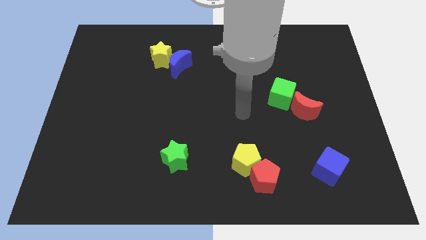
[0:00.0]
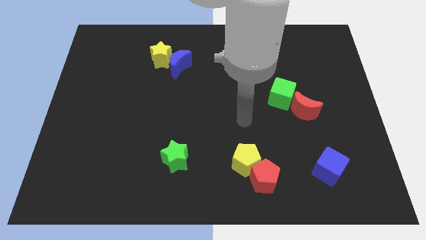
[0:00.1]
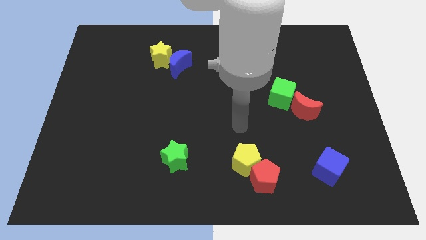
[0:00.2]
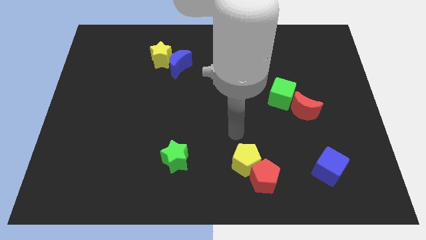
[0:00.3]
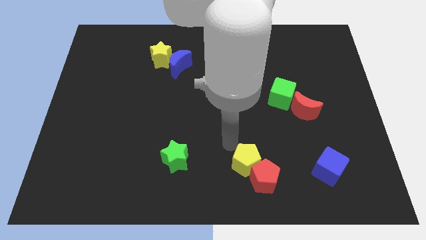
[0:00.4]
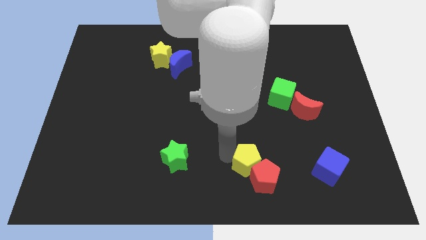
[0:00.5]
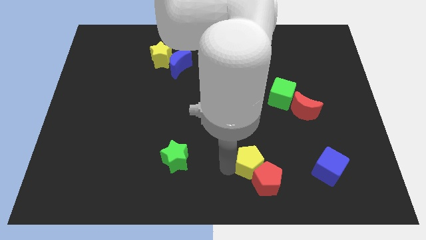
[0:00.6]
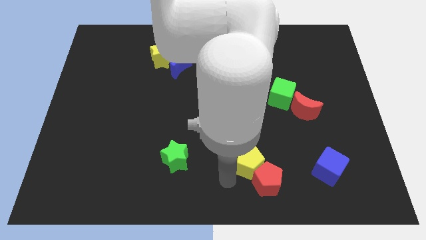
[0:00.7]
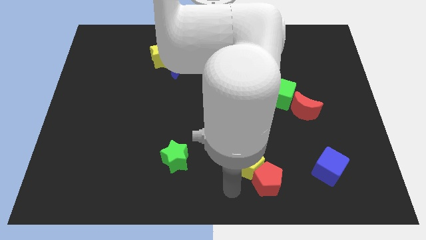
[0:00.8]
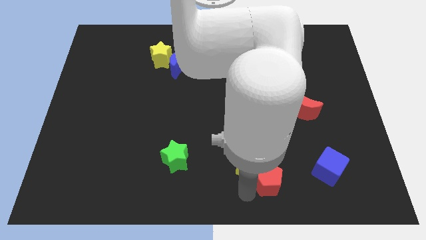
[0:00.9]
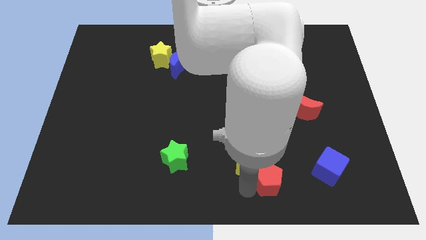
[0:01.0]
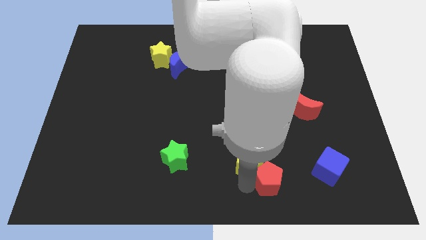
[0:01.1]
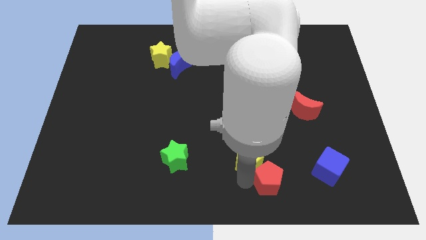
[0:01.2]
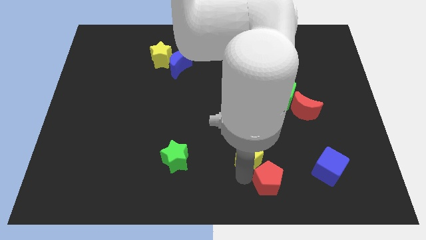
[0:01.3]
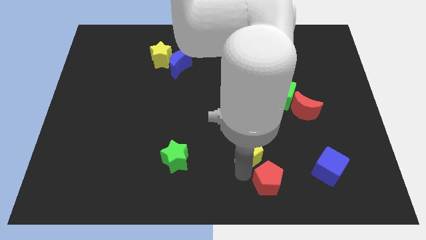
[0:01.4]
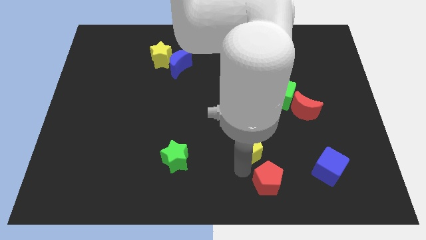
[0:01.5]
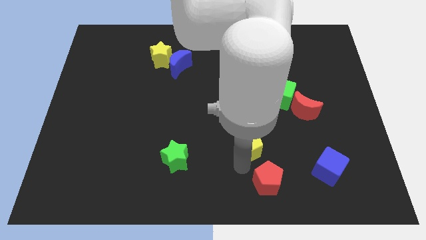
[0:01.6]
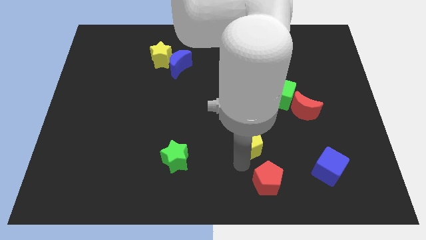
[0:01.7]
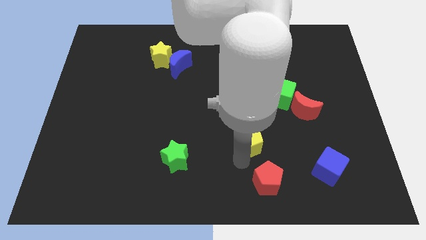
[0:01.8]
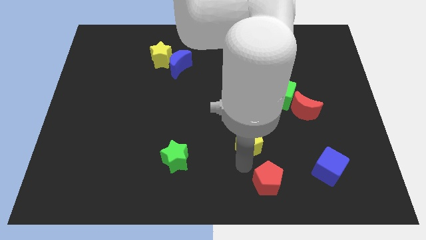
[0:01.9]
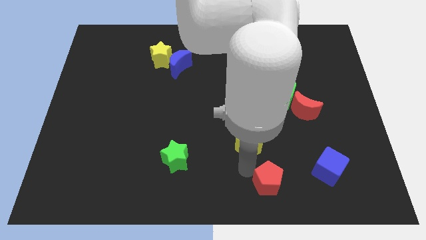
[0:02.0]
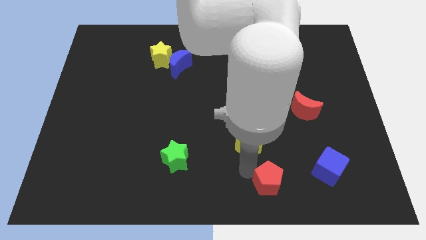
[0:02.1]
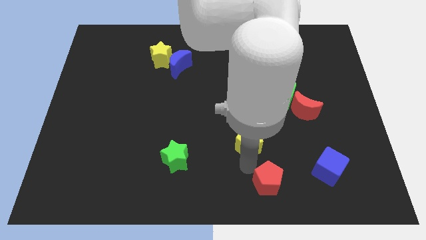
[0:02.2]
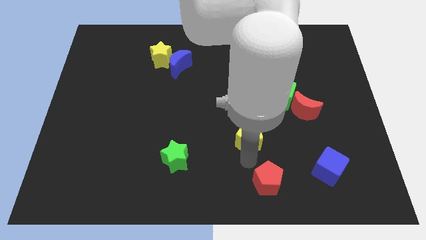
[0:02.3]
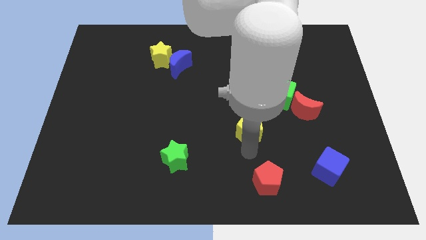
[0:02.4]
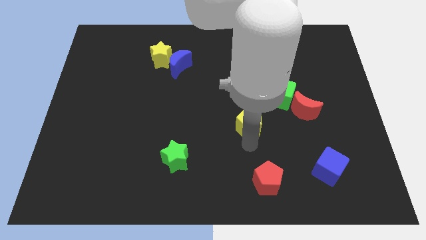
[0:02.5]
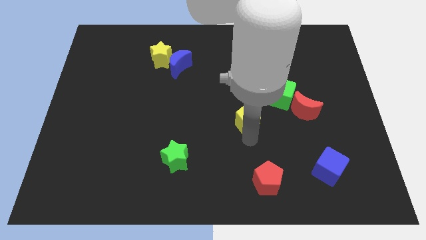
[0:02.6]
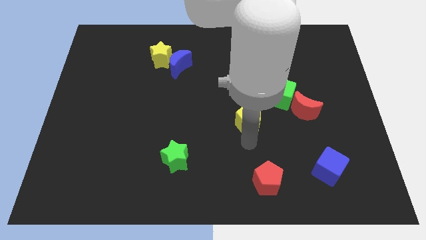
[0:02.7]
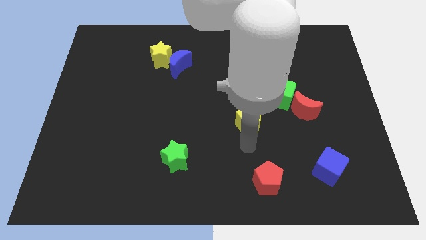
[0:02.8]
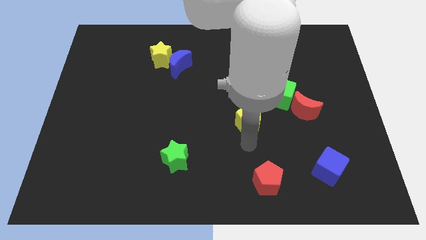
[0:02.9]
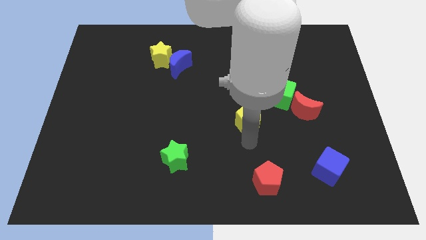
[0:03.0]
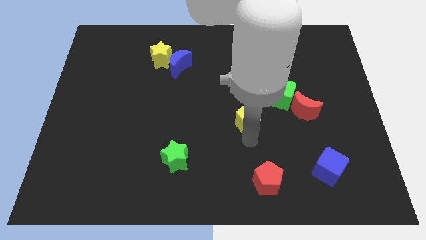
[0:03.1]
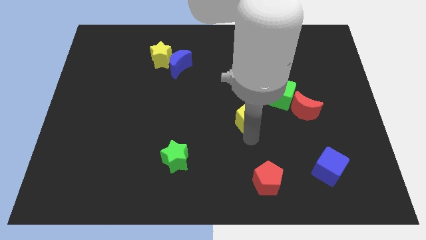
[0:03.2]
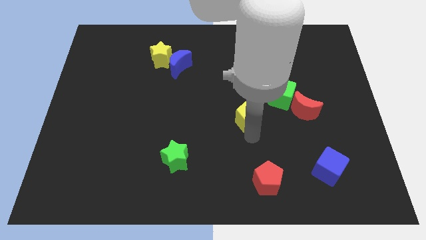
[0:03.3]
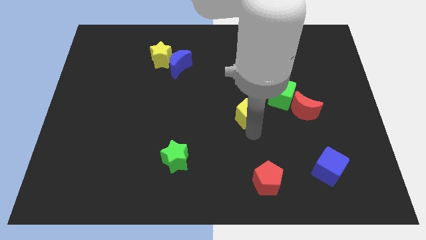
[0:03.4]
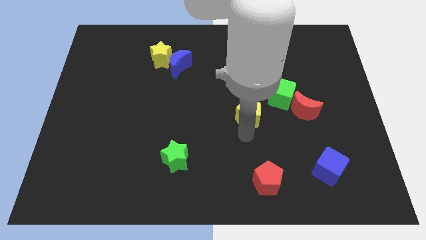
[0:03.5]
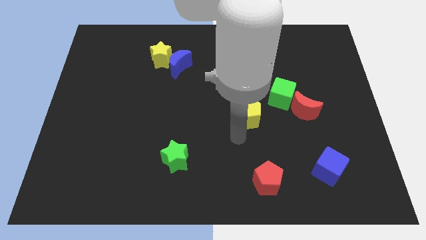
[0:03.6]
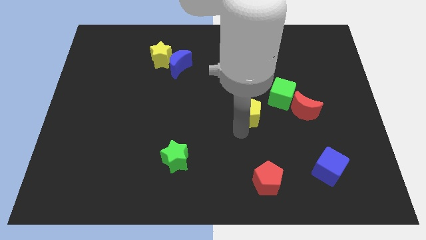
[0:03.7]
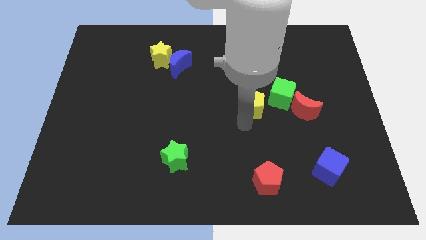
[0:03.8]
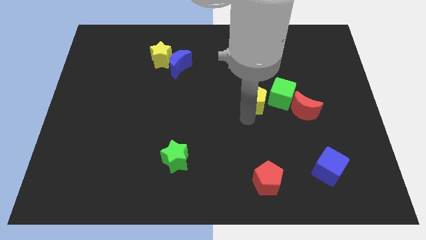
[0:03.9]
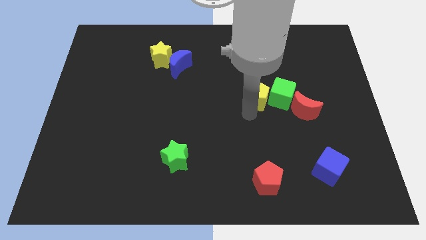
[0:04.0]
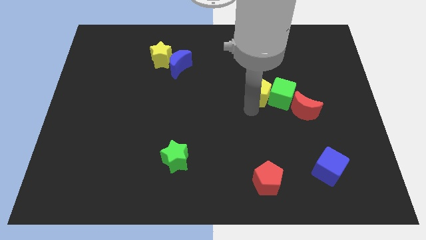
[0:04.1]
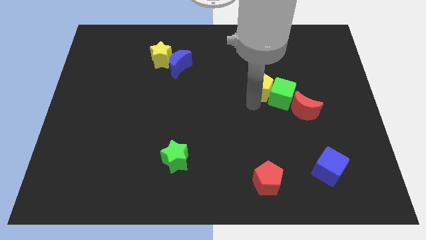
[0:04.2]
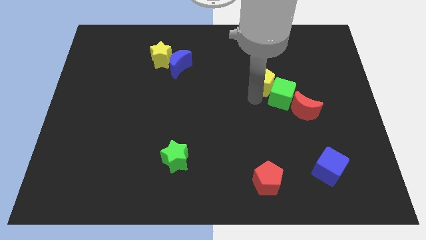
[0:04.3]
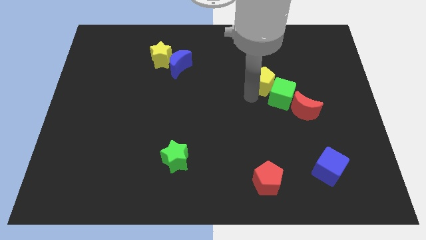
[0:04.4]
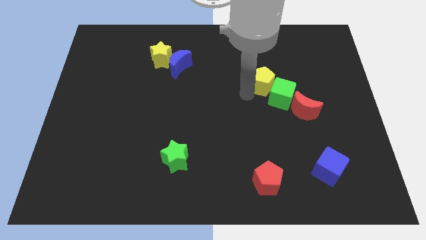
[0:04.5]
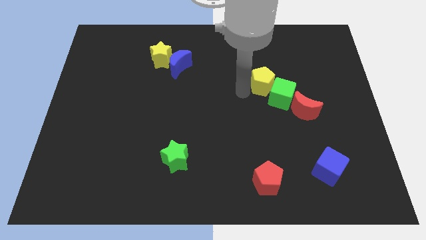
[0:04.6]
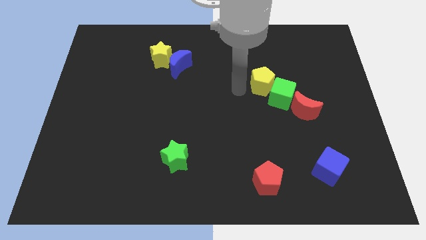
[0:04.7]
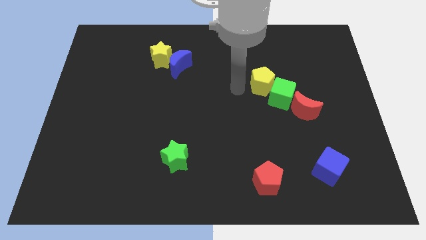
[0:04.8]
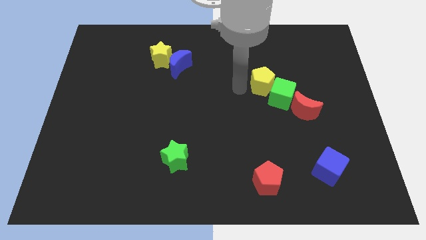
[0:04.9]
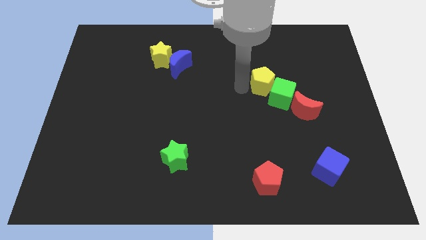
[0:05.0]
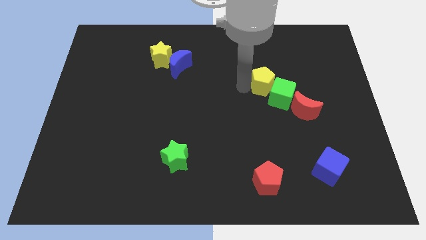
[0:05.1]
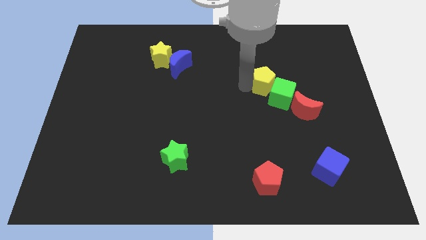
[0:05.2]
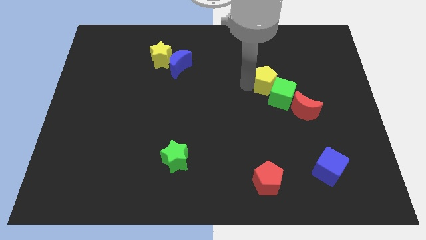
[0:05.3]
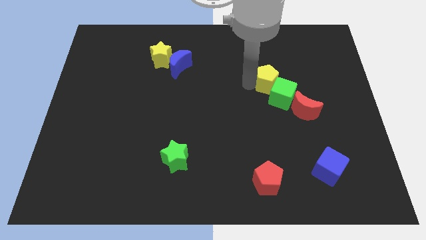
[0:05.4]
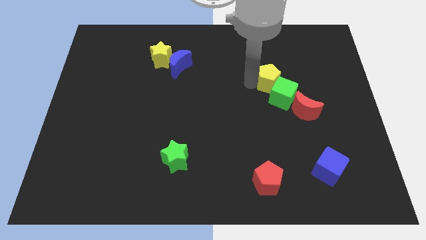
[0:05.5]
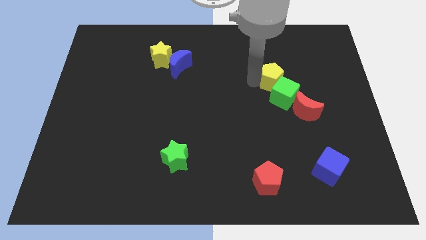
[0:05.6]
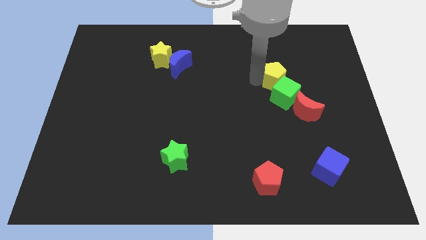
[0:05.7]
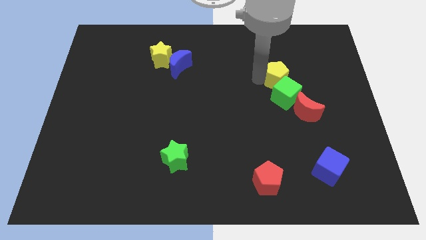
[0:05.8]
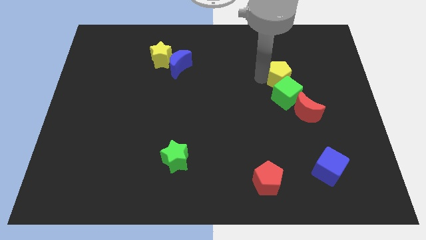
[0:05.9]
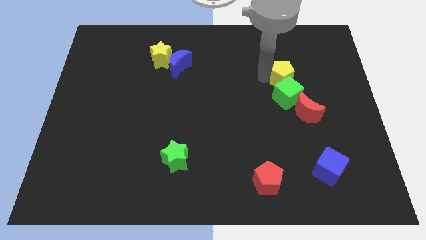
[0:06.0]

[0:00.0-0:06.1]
move the yellow pentagon to the top side of the red moon

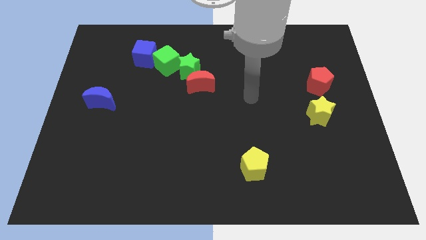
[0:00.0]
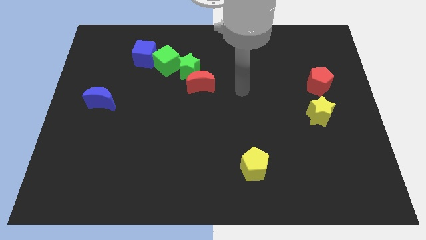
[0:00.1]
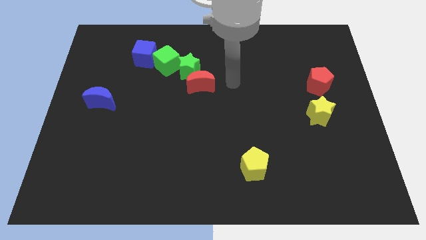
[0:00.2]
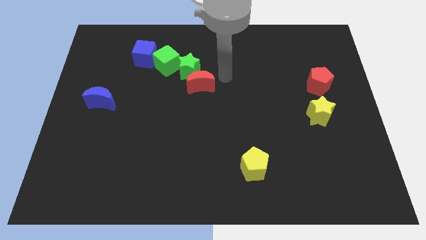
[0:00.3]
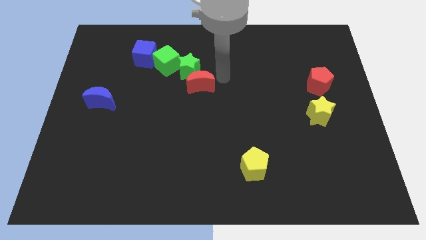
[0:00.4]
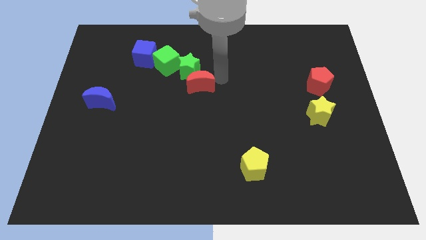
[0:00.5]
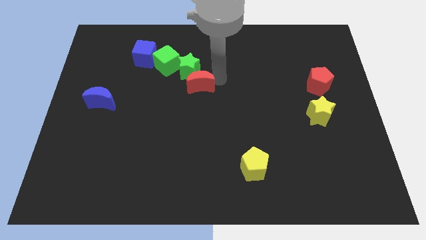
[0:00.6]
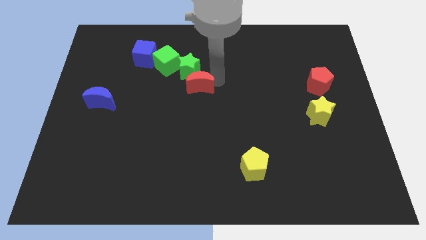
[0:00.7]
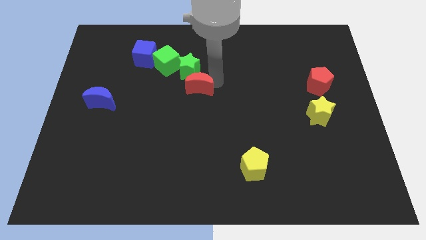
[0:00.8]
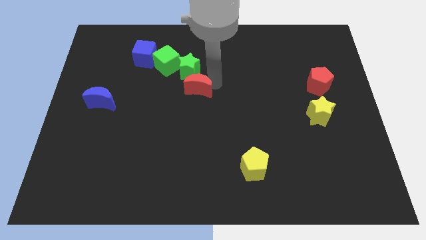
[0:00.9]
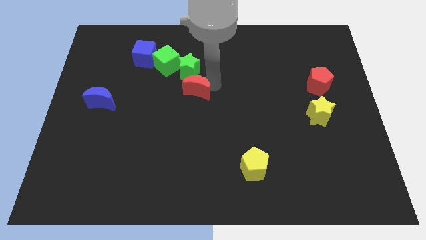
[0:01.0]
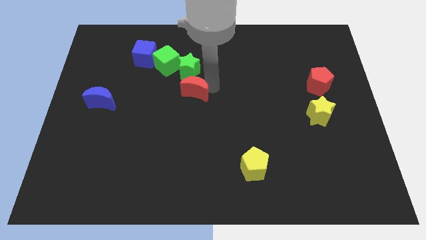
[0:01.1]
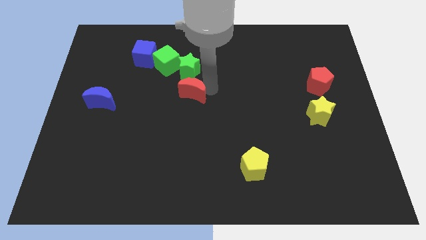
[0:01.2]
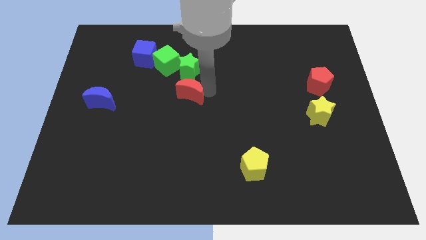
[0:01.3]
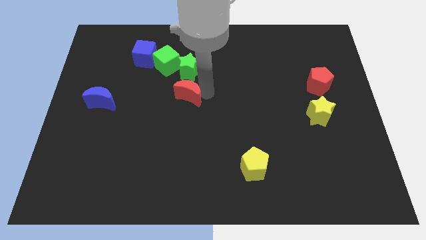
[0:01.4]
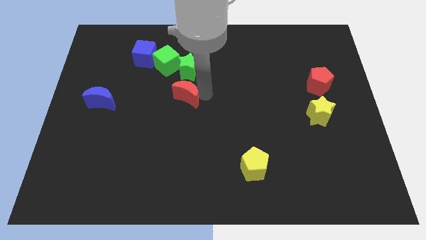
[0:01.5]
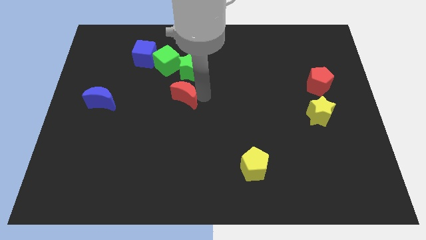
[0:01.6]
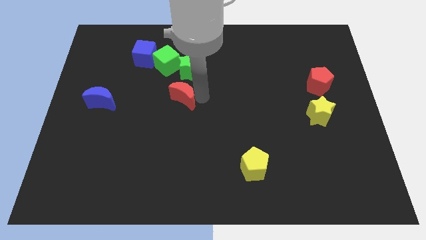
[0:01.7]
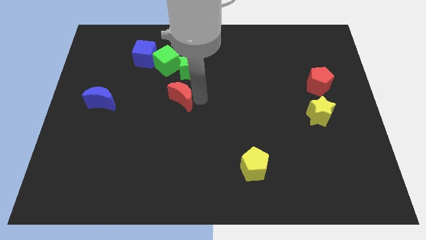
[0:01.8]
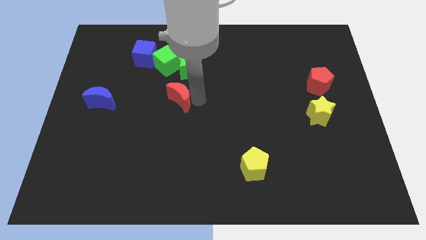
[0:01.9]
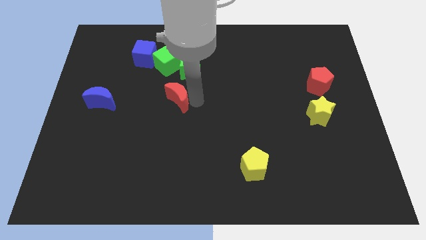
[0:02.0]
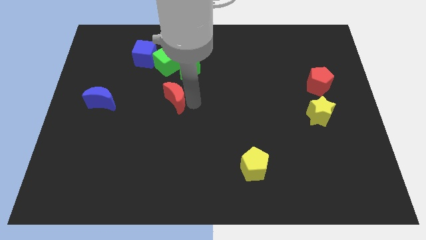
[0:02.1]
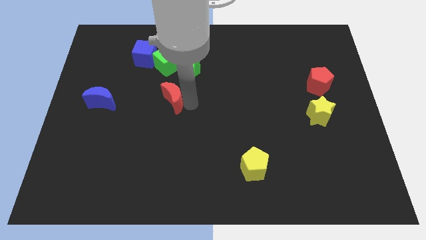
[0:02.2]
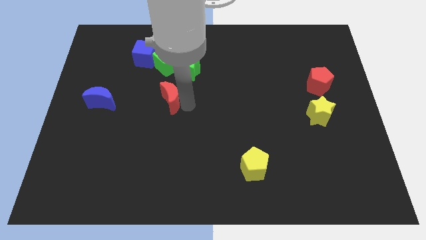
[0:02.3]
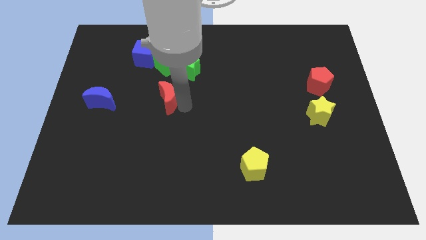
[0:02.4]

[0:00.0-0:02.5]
push the red moon to the right side of the blue moon
